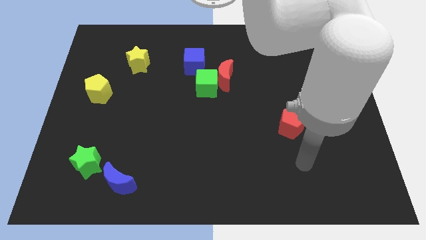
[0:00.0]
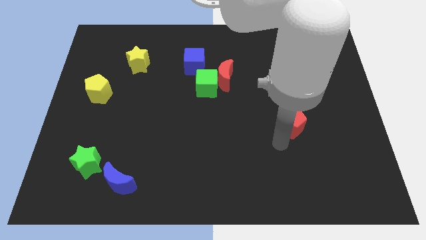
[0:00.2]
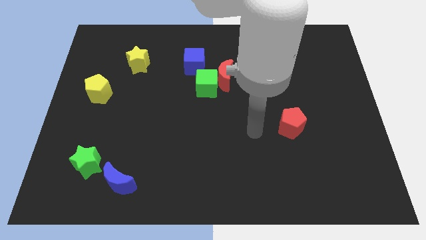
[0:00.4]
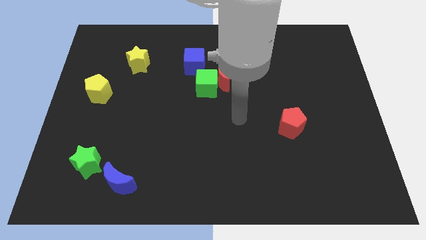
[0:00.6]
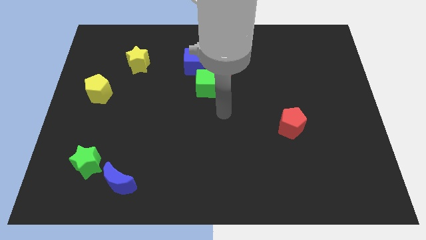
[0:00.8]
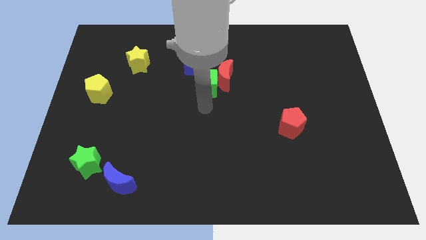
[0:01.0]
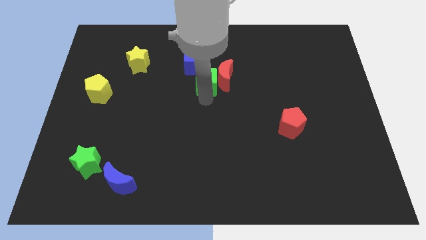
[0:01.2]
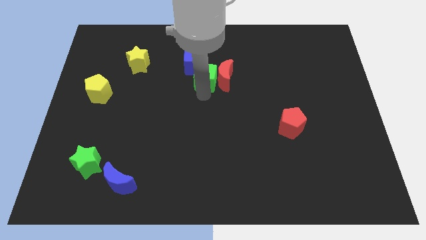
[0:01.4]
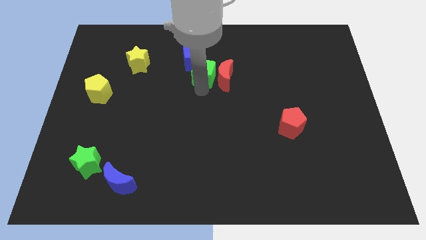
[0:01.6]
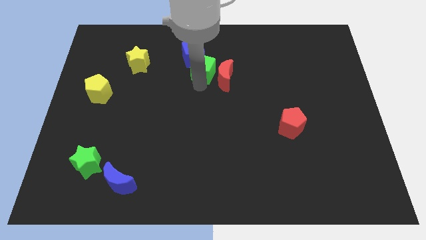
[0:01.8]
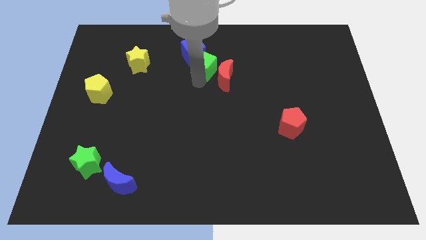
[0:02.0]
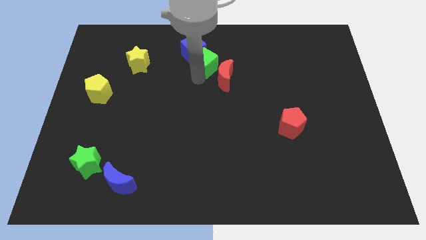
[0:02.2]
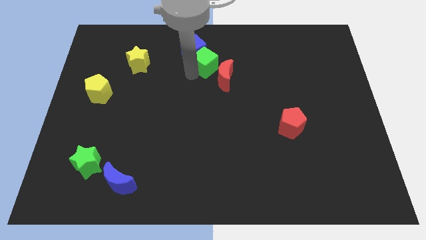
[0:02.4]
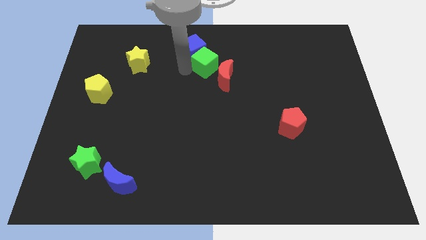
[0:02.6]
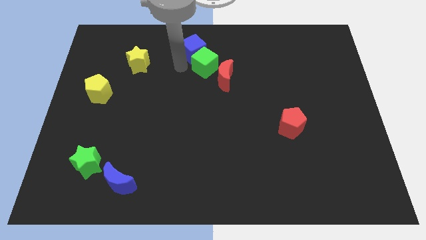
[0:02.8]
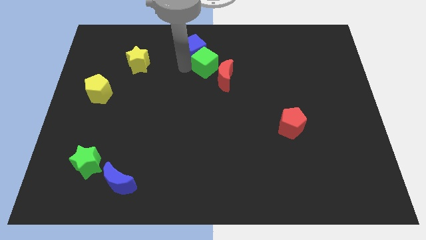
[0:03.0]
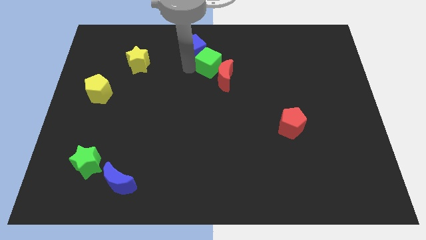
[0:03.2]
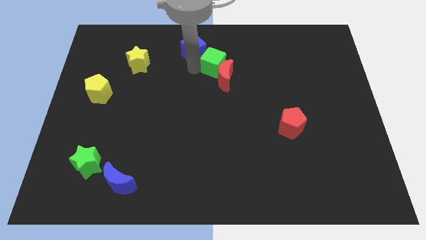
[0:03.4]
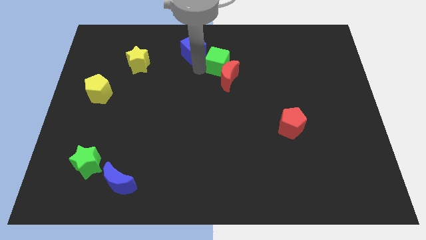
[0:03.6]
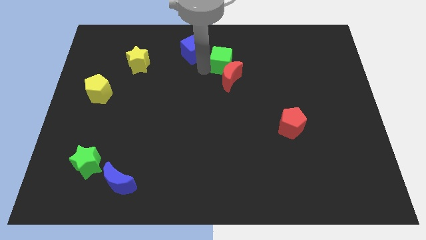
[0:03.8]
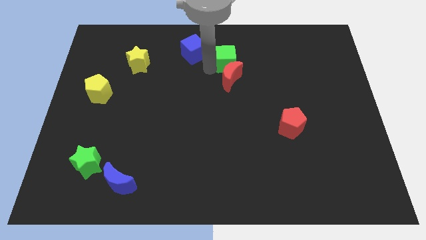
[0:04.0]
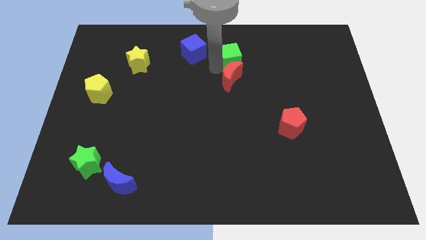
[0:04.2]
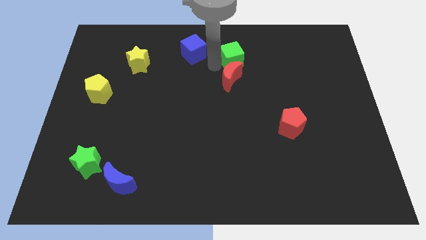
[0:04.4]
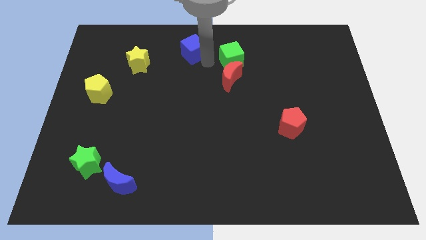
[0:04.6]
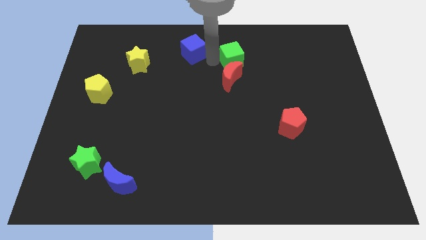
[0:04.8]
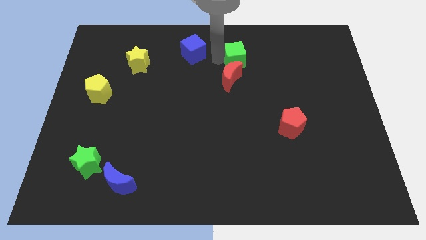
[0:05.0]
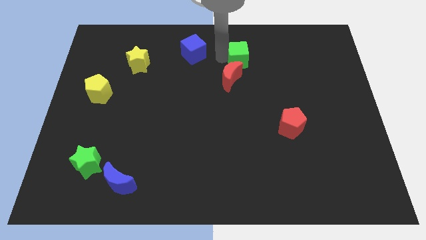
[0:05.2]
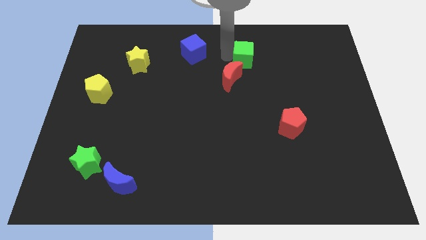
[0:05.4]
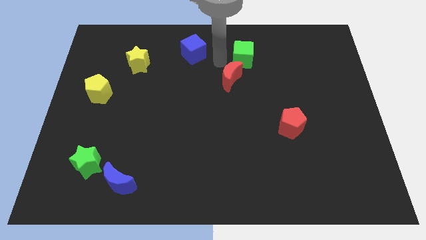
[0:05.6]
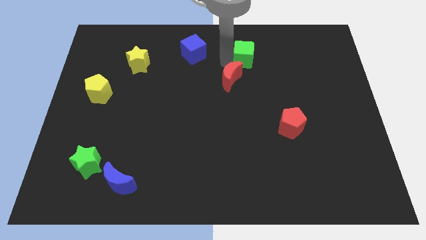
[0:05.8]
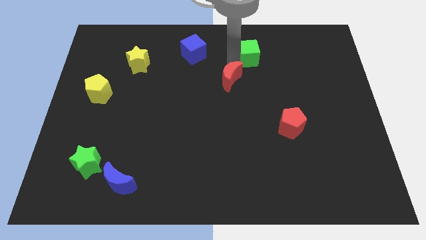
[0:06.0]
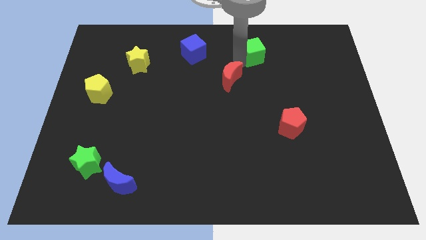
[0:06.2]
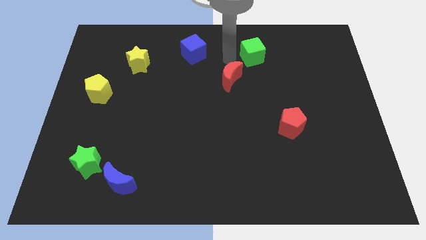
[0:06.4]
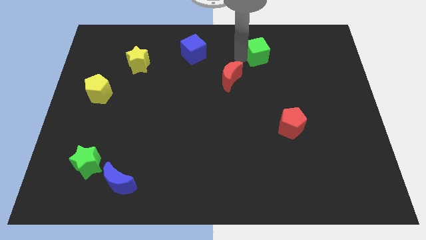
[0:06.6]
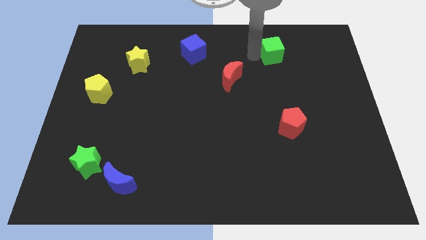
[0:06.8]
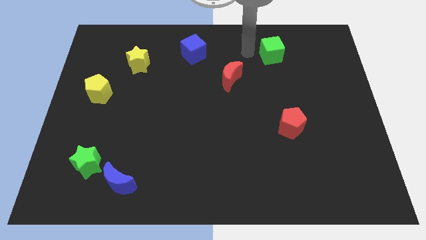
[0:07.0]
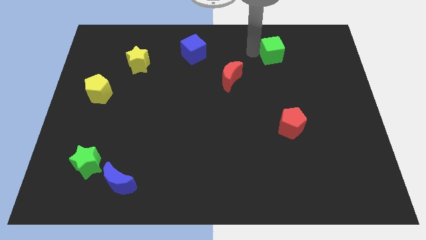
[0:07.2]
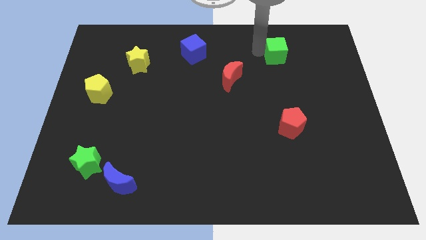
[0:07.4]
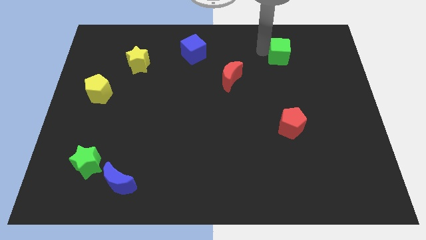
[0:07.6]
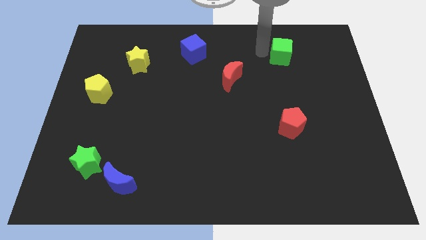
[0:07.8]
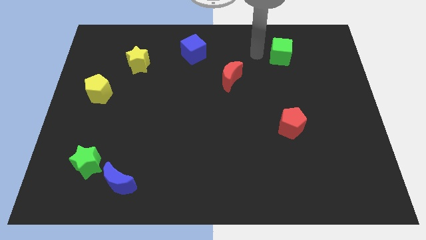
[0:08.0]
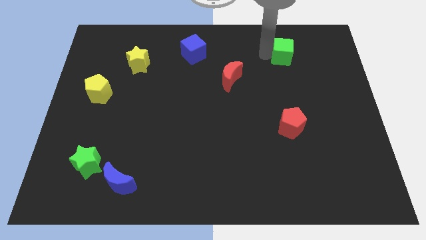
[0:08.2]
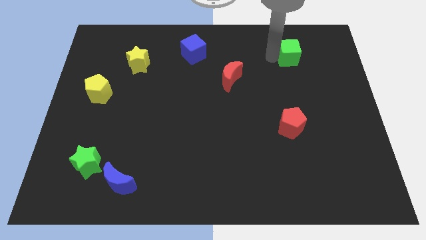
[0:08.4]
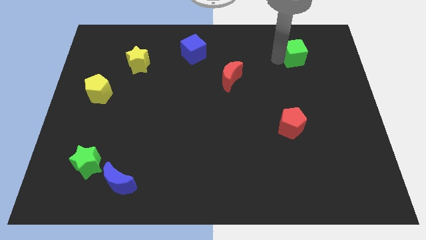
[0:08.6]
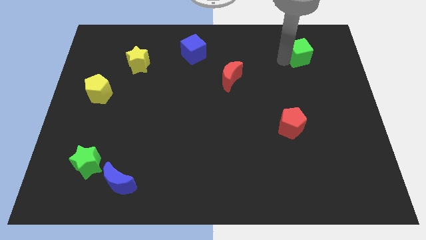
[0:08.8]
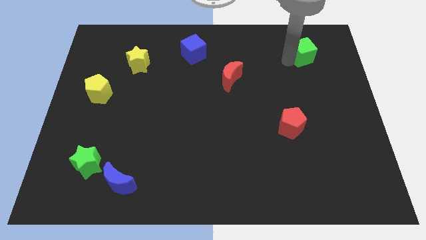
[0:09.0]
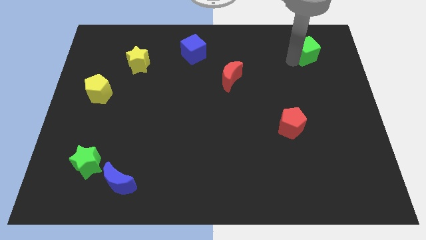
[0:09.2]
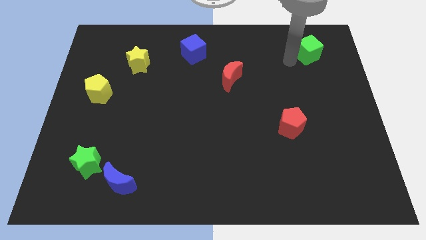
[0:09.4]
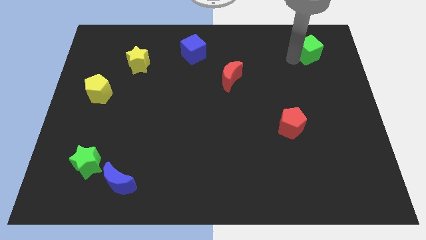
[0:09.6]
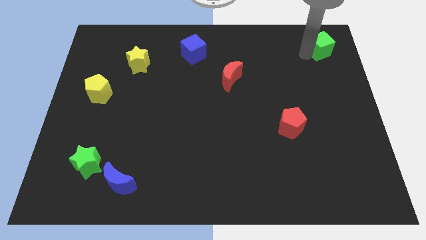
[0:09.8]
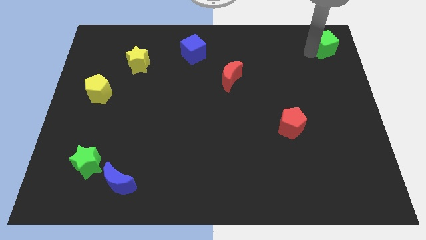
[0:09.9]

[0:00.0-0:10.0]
put the green cube to the top right corner

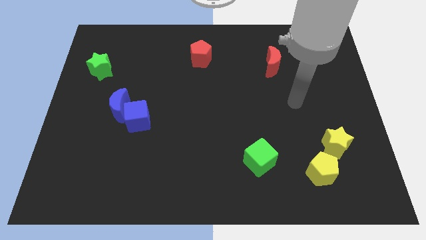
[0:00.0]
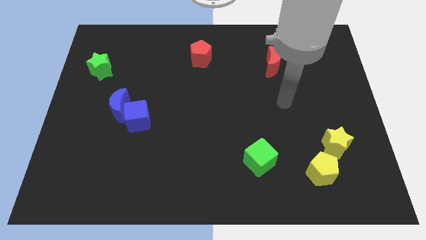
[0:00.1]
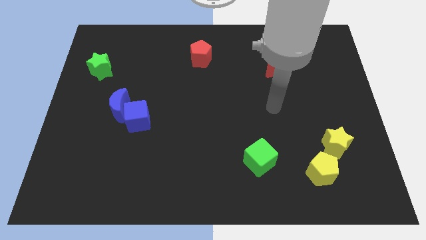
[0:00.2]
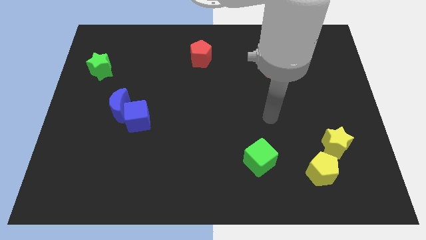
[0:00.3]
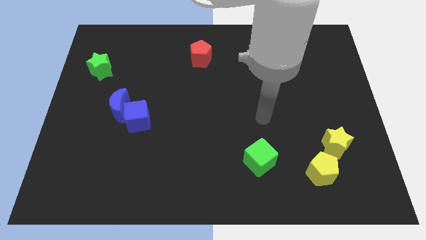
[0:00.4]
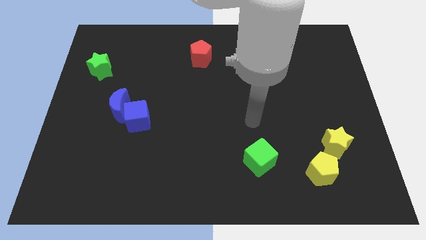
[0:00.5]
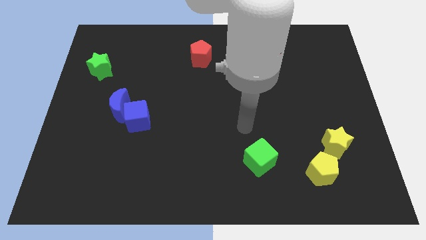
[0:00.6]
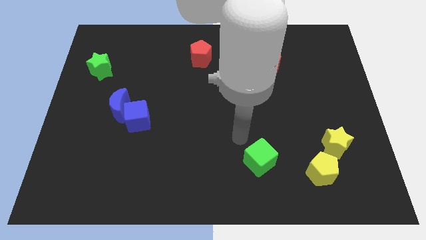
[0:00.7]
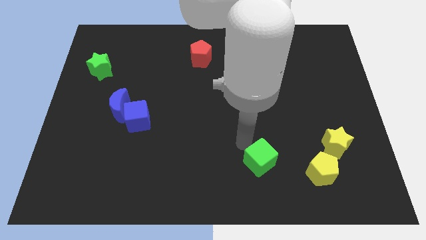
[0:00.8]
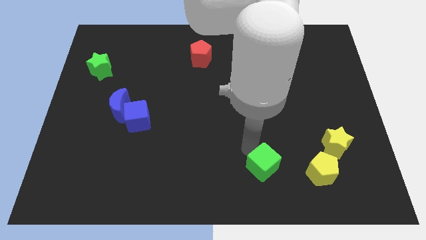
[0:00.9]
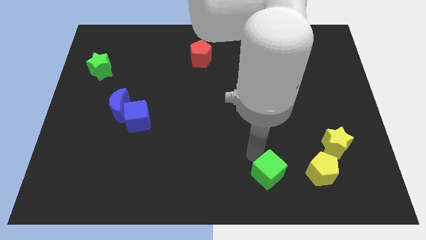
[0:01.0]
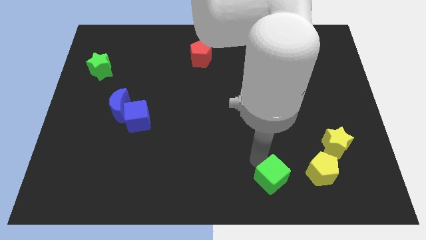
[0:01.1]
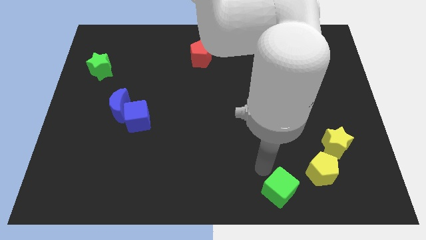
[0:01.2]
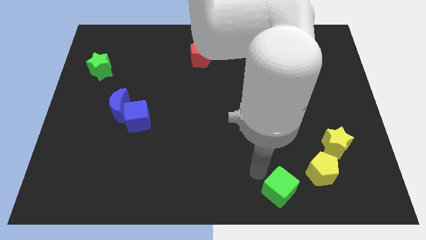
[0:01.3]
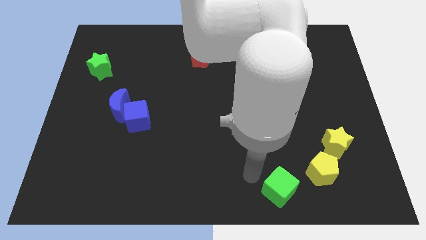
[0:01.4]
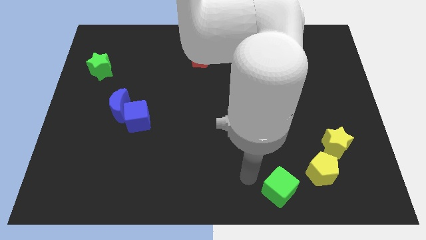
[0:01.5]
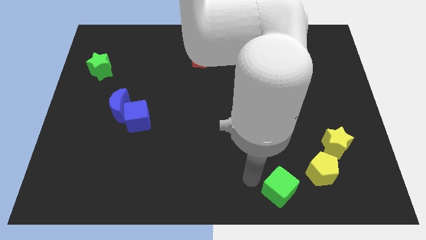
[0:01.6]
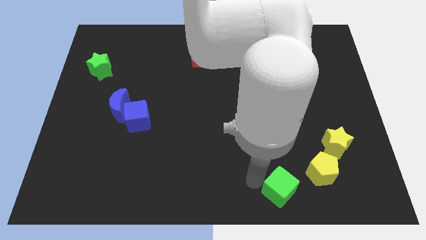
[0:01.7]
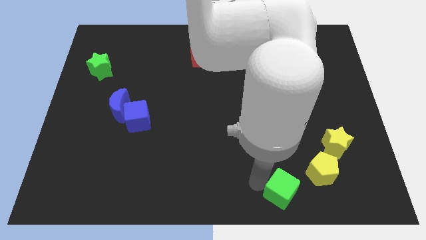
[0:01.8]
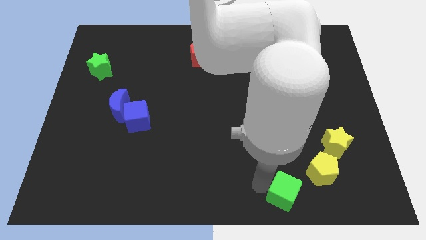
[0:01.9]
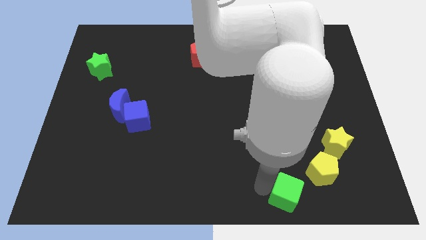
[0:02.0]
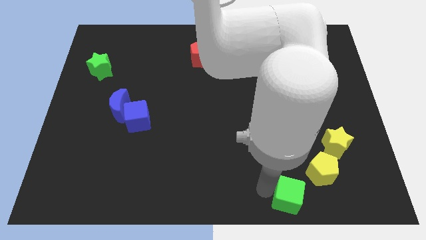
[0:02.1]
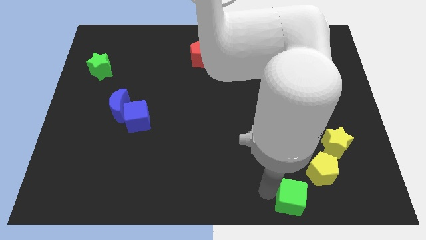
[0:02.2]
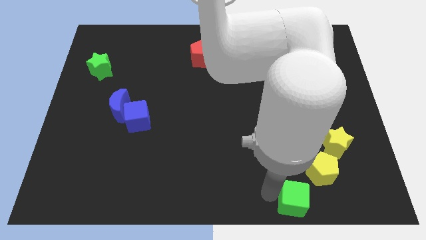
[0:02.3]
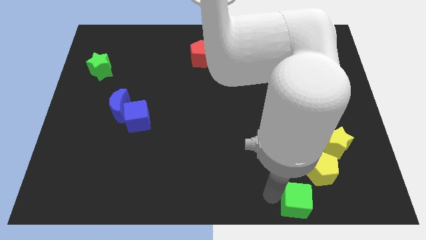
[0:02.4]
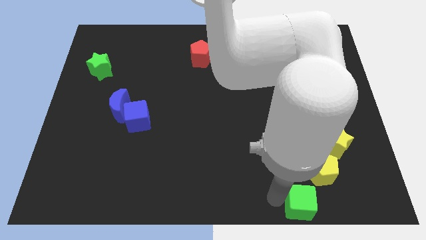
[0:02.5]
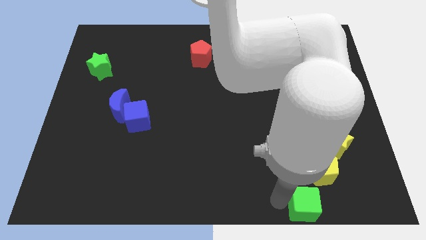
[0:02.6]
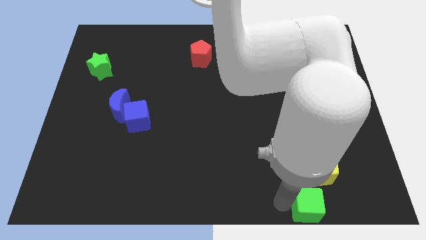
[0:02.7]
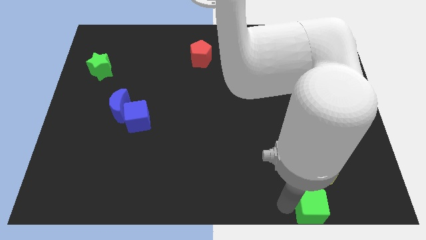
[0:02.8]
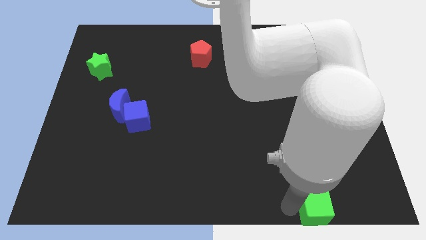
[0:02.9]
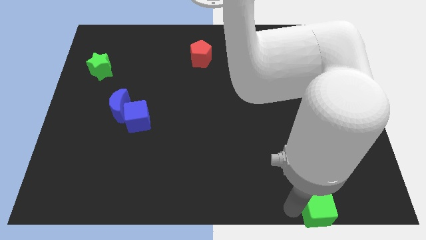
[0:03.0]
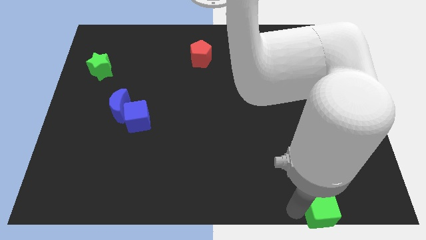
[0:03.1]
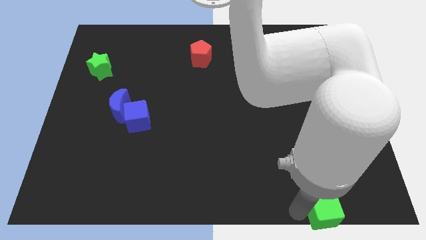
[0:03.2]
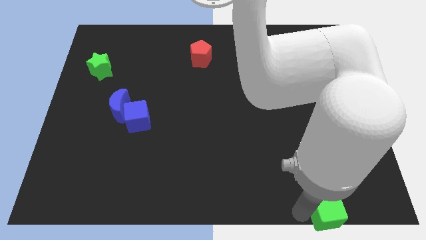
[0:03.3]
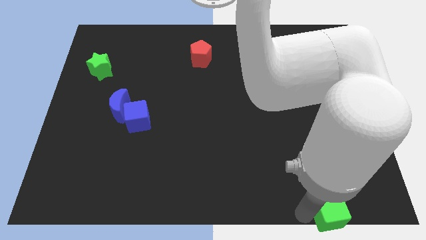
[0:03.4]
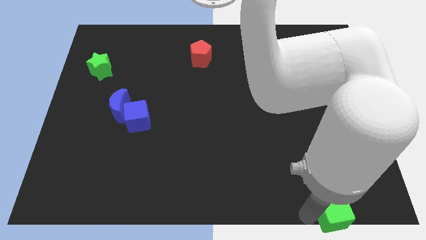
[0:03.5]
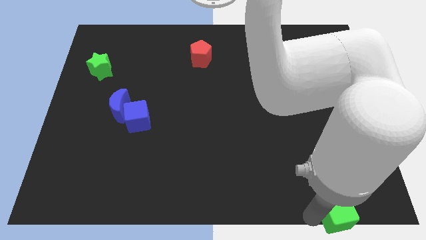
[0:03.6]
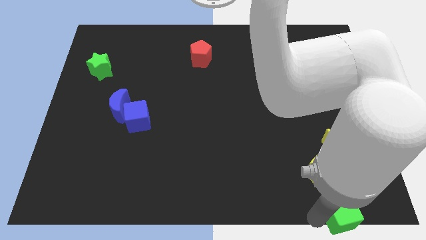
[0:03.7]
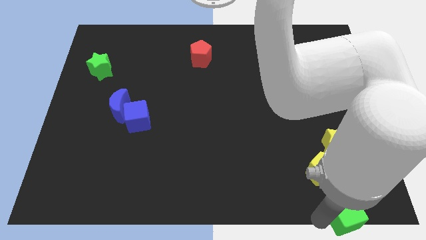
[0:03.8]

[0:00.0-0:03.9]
slide the green cube to the bottom right corner
